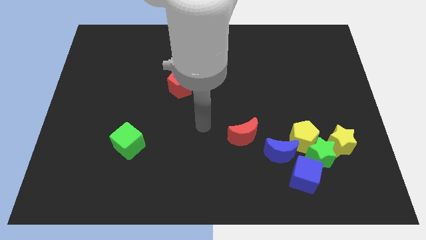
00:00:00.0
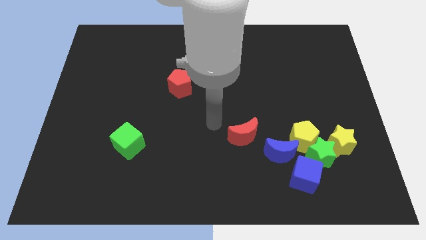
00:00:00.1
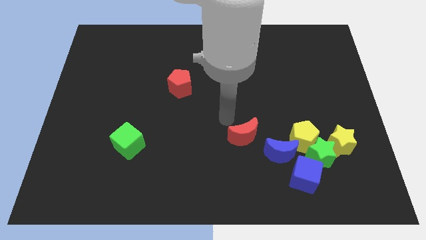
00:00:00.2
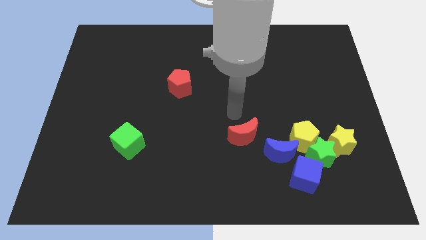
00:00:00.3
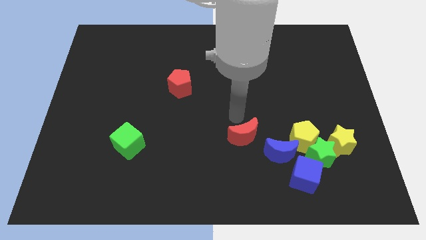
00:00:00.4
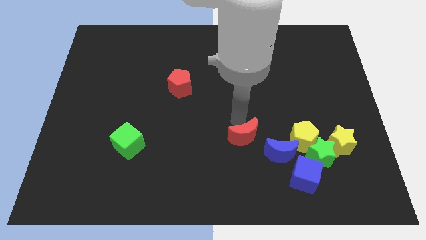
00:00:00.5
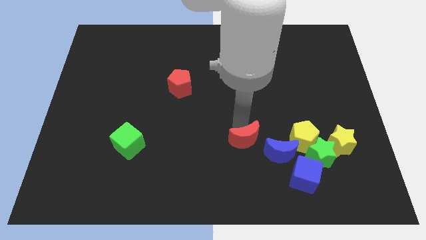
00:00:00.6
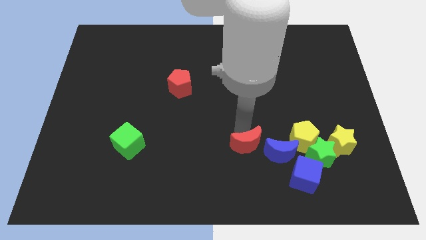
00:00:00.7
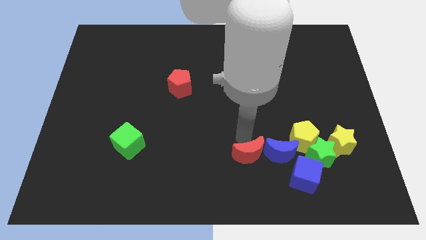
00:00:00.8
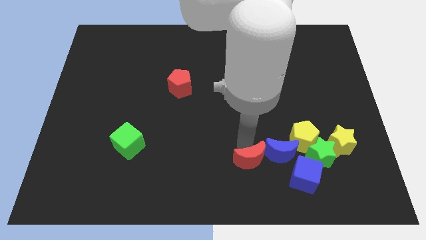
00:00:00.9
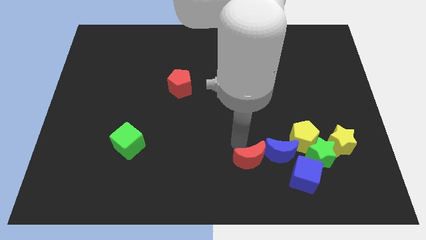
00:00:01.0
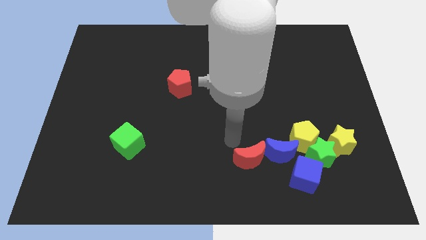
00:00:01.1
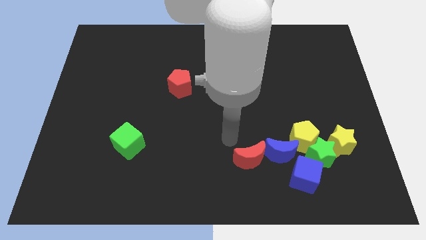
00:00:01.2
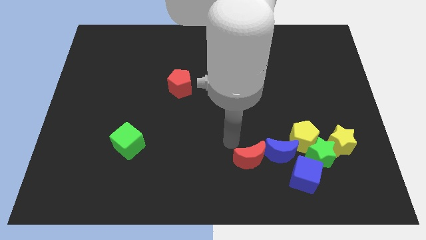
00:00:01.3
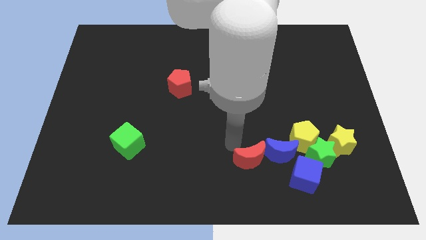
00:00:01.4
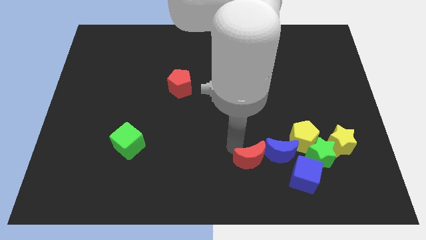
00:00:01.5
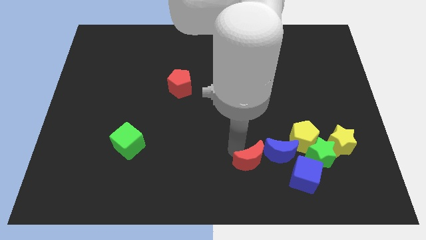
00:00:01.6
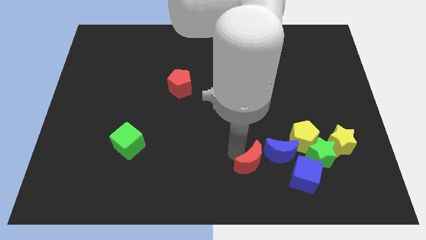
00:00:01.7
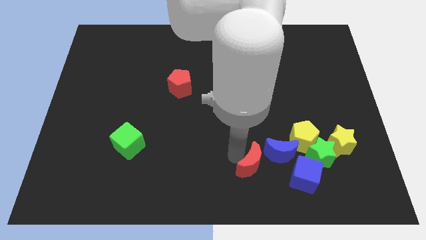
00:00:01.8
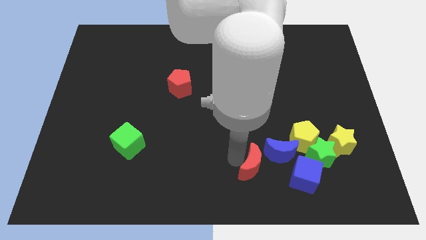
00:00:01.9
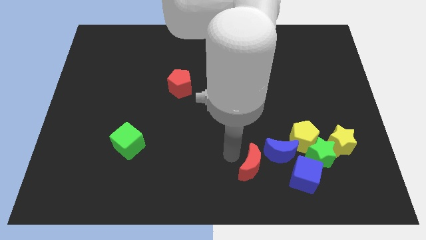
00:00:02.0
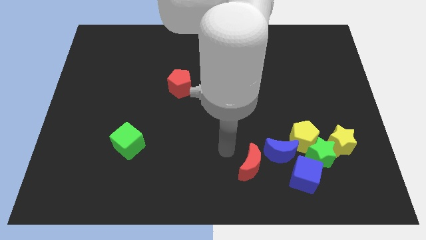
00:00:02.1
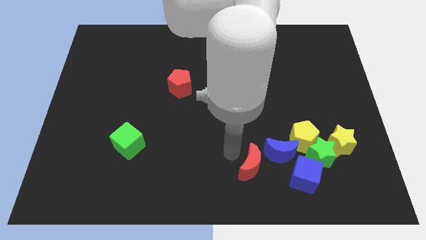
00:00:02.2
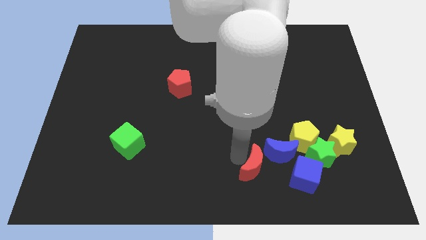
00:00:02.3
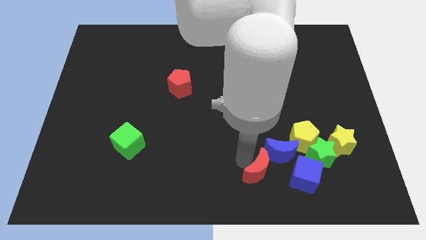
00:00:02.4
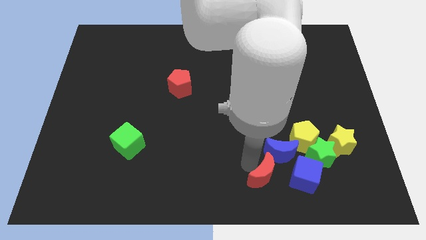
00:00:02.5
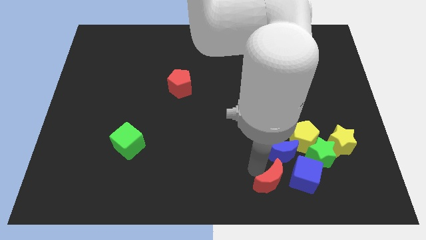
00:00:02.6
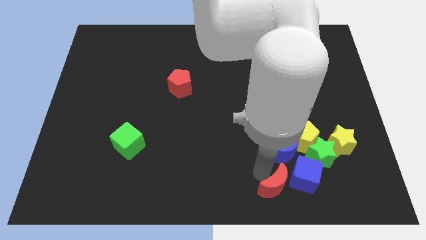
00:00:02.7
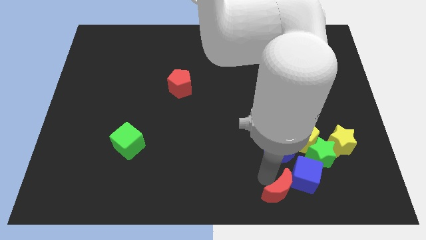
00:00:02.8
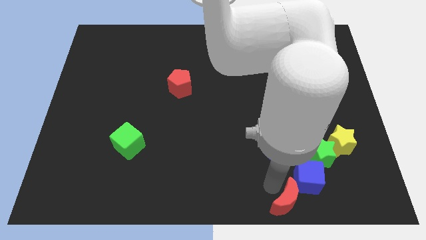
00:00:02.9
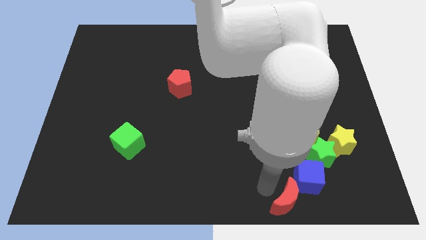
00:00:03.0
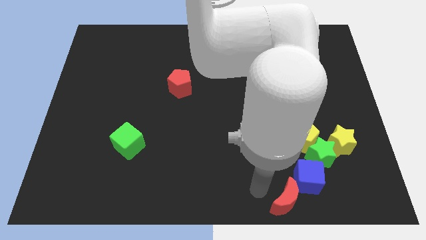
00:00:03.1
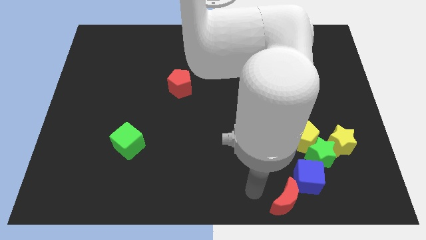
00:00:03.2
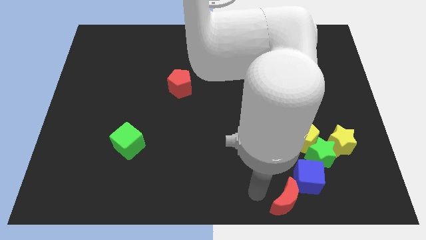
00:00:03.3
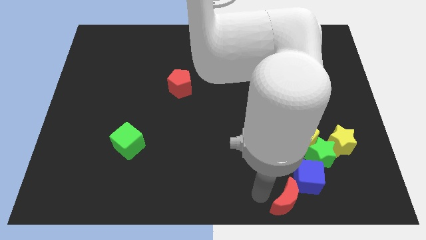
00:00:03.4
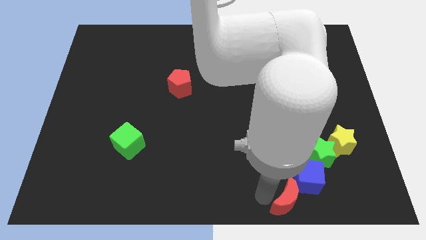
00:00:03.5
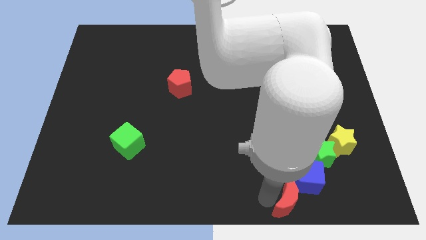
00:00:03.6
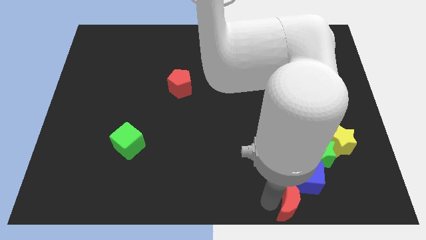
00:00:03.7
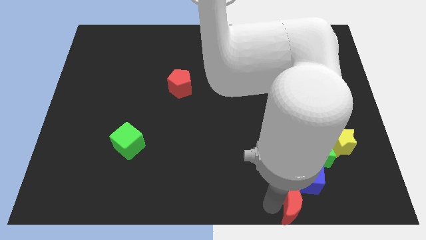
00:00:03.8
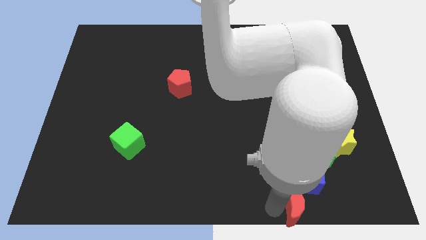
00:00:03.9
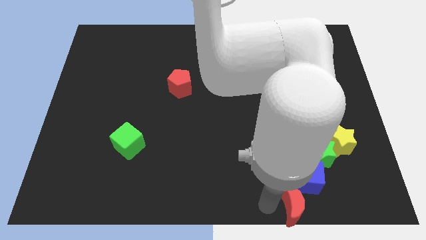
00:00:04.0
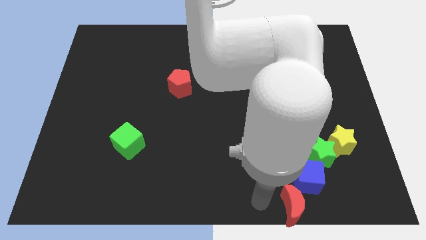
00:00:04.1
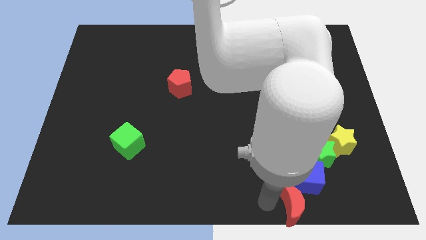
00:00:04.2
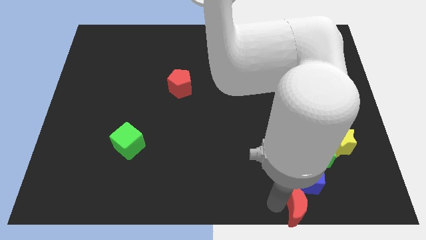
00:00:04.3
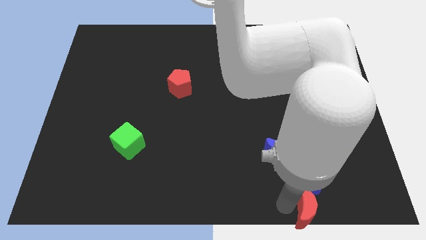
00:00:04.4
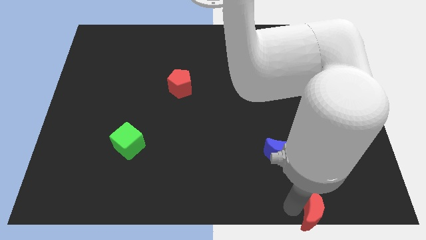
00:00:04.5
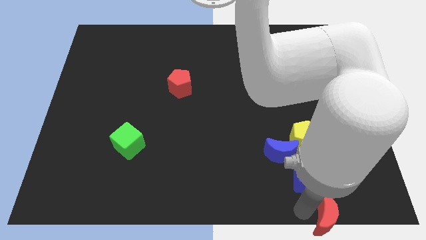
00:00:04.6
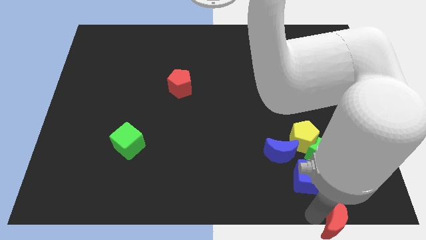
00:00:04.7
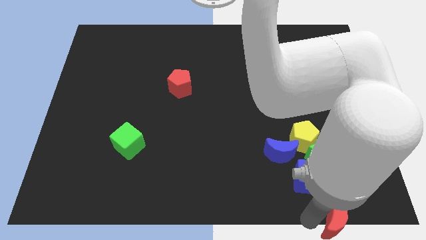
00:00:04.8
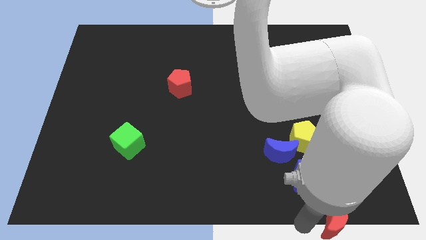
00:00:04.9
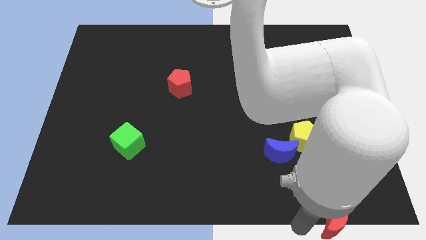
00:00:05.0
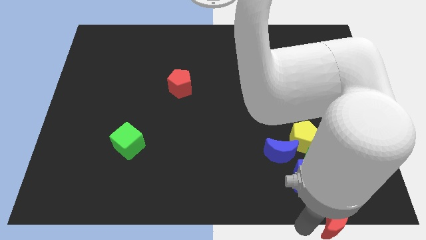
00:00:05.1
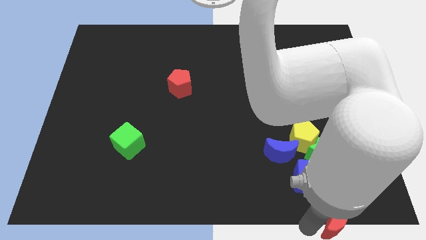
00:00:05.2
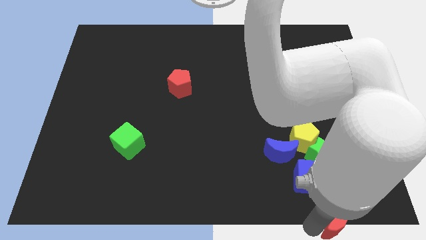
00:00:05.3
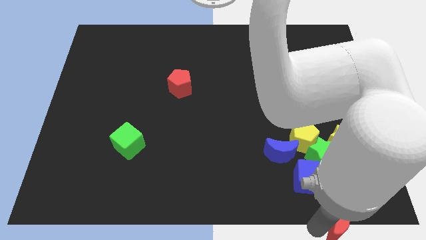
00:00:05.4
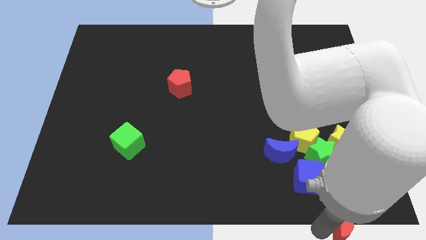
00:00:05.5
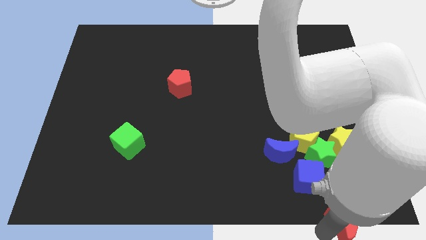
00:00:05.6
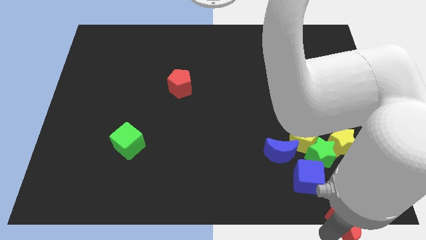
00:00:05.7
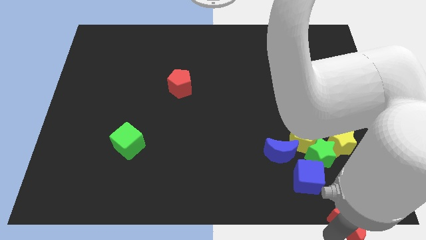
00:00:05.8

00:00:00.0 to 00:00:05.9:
push the red moon to the bottom right corner

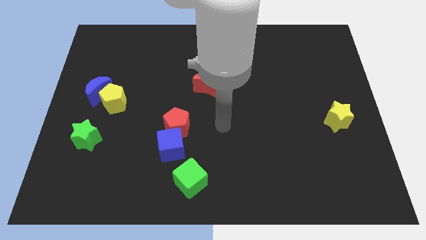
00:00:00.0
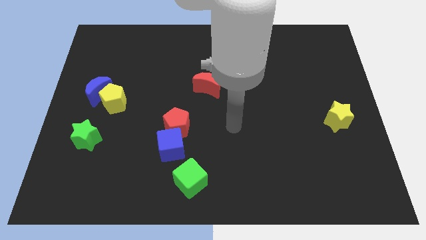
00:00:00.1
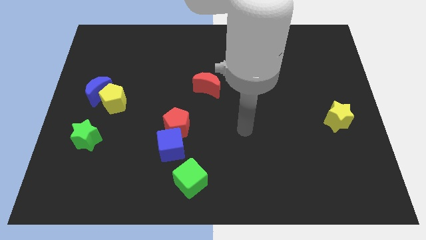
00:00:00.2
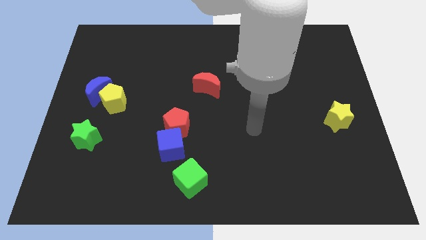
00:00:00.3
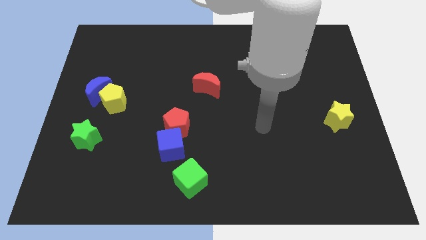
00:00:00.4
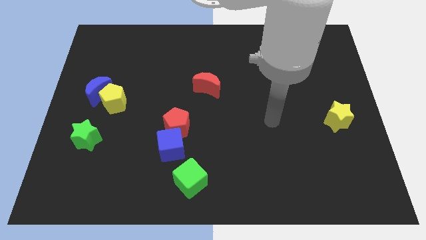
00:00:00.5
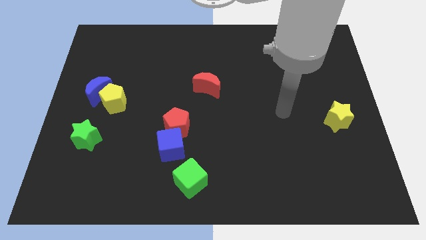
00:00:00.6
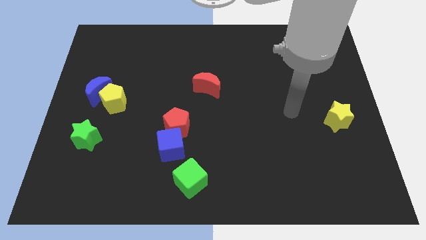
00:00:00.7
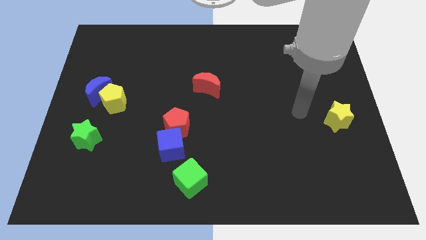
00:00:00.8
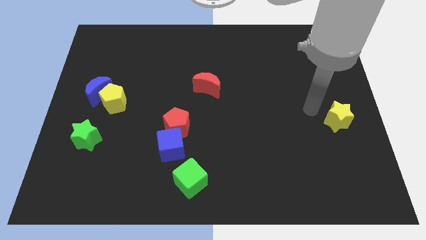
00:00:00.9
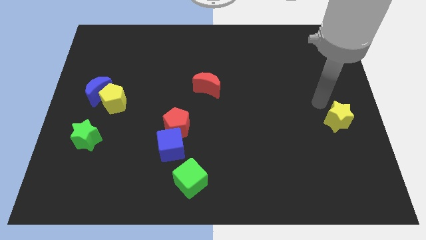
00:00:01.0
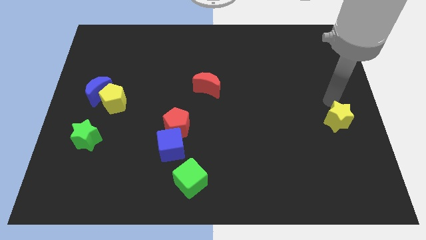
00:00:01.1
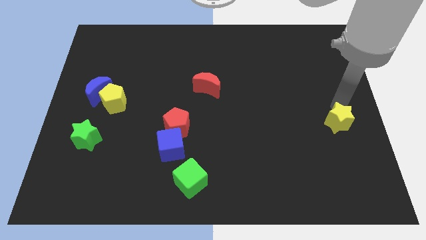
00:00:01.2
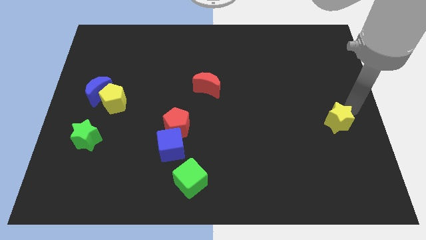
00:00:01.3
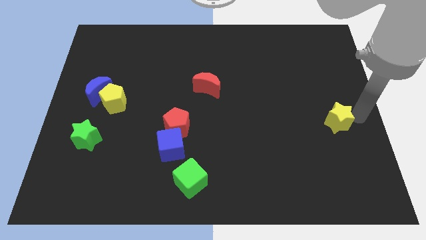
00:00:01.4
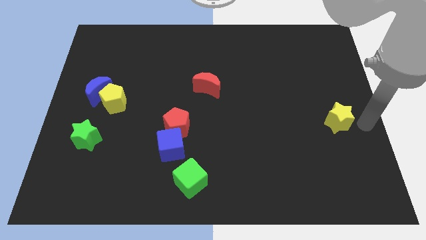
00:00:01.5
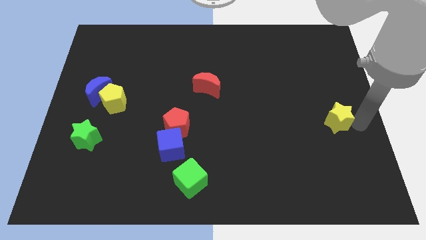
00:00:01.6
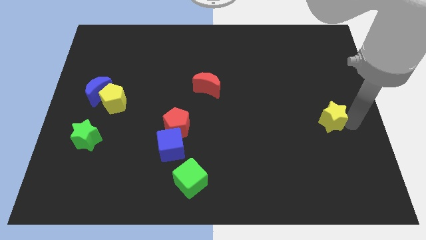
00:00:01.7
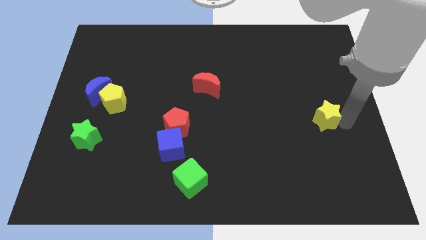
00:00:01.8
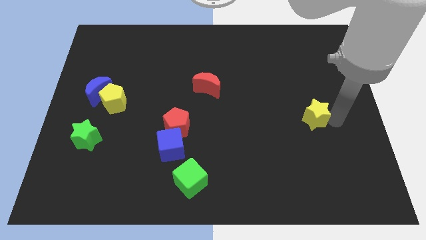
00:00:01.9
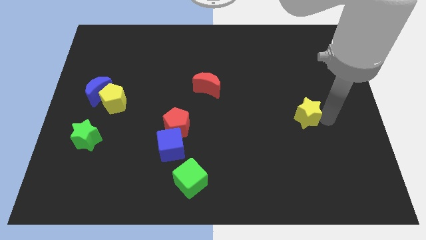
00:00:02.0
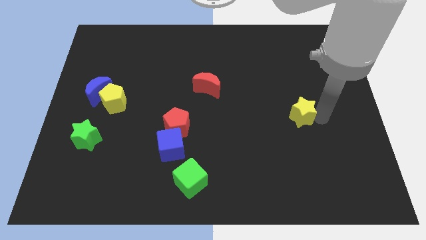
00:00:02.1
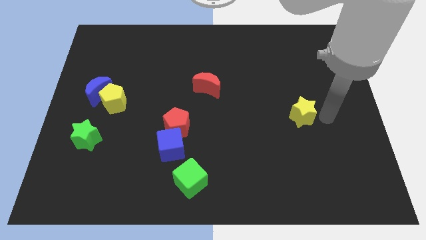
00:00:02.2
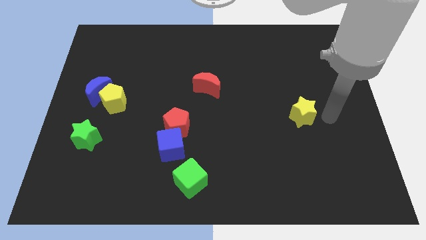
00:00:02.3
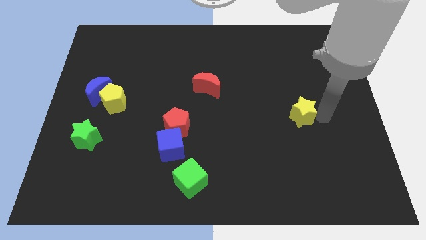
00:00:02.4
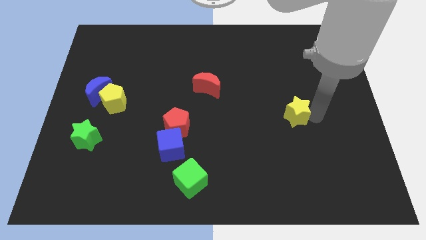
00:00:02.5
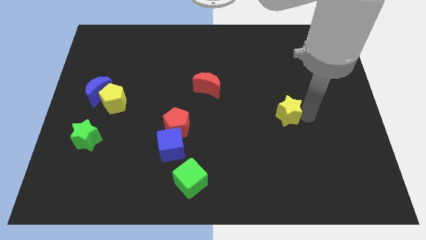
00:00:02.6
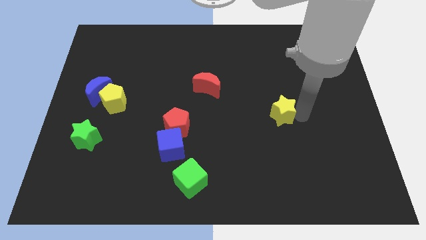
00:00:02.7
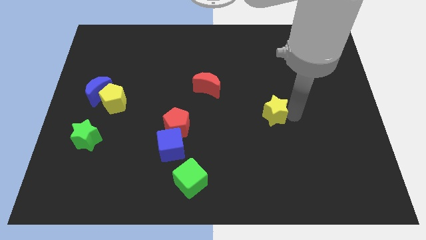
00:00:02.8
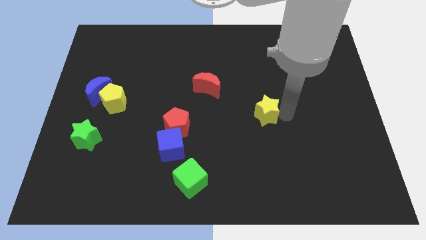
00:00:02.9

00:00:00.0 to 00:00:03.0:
slide the yellow star to the middle
